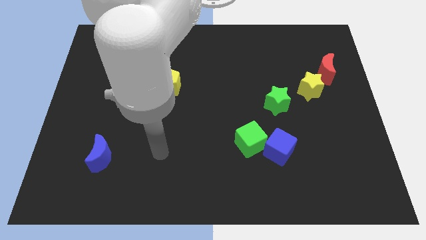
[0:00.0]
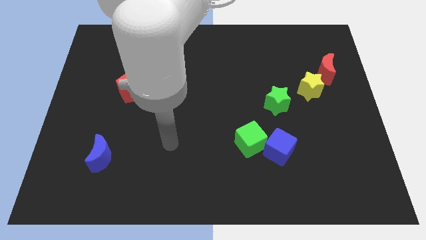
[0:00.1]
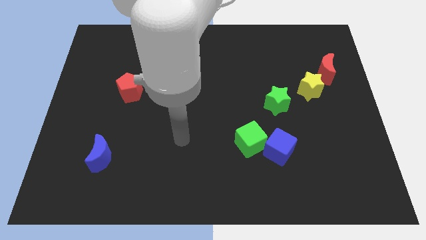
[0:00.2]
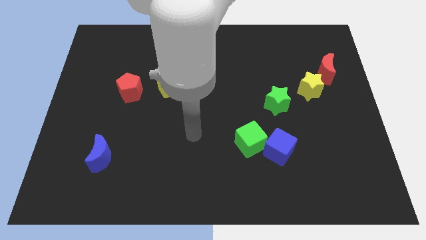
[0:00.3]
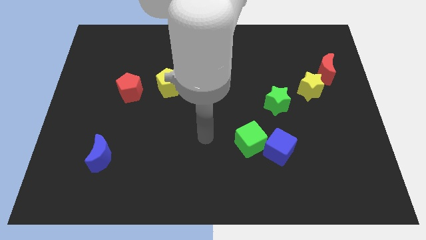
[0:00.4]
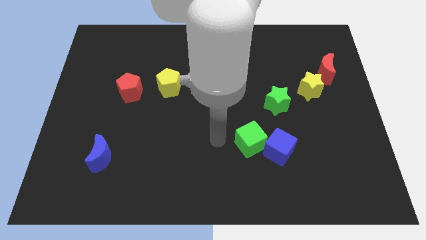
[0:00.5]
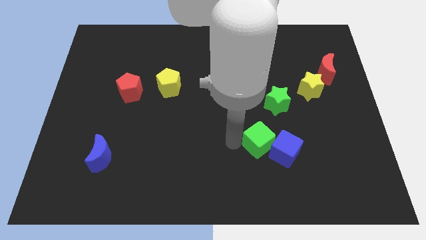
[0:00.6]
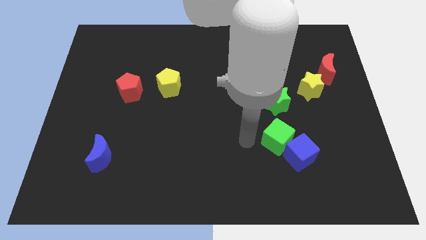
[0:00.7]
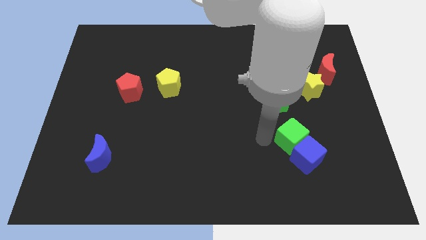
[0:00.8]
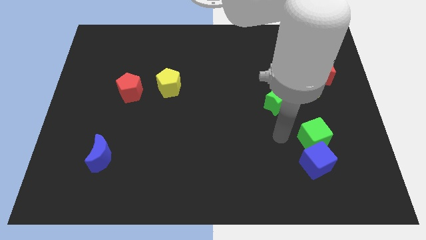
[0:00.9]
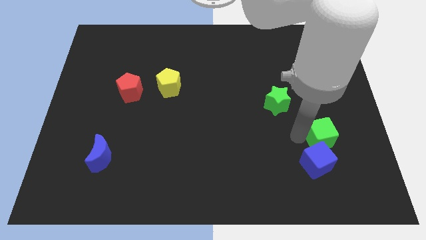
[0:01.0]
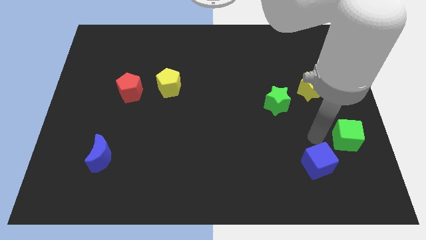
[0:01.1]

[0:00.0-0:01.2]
separate the blue cube from the green cube

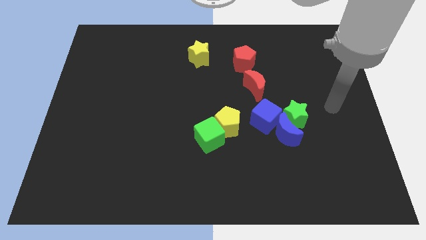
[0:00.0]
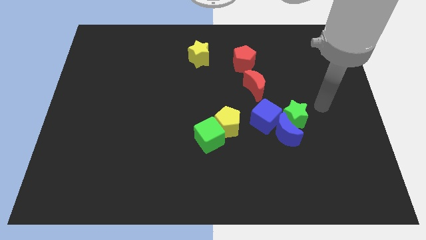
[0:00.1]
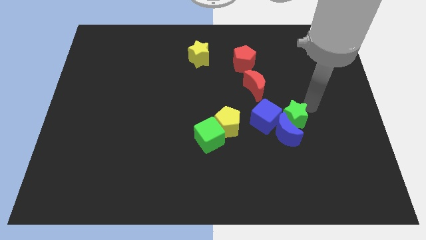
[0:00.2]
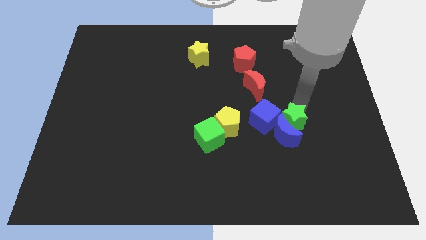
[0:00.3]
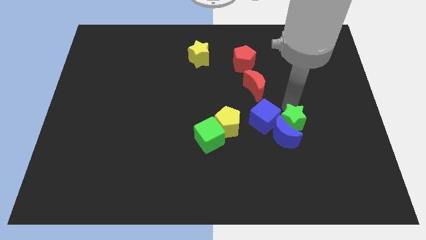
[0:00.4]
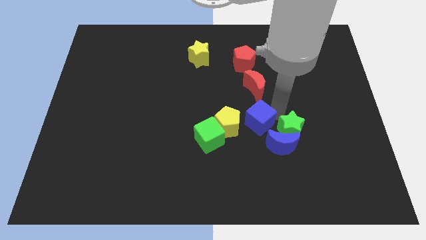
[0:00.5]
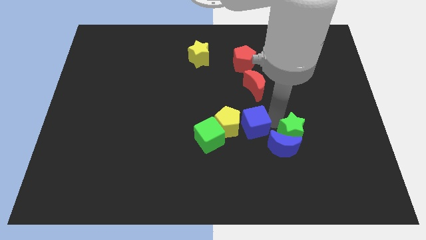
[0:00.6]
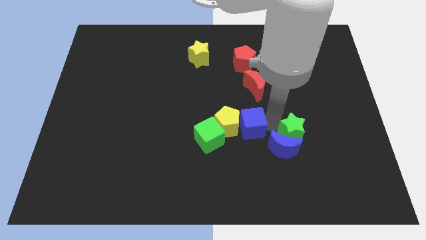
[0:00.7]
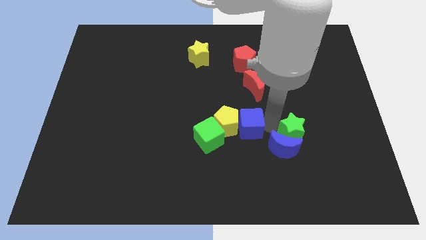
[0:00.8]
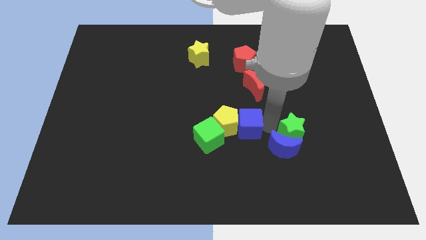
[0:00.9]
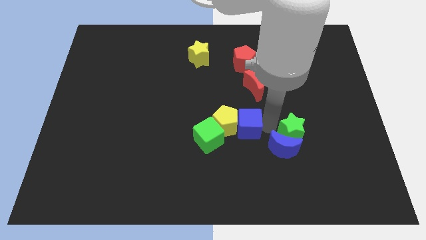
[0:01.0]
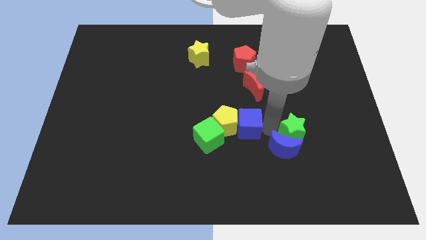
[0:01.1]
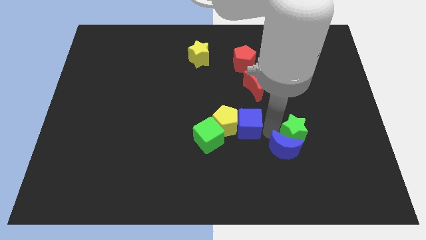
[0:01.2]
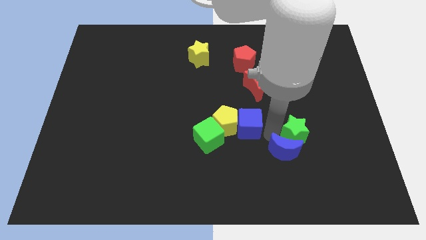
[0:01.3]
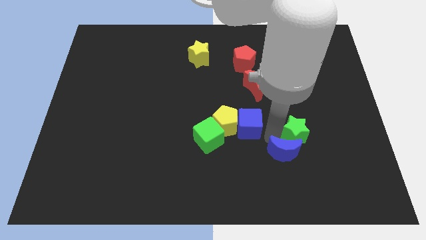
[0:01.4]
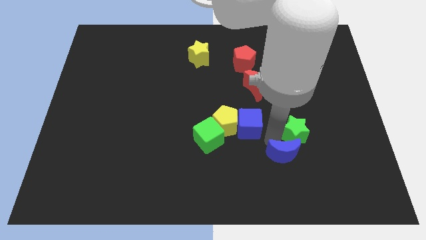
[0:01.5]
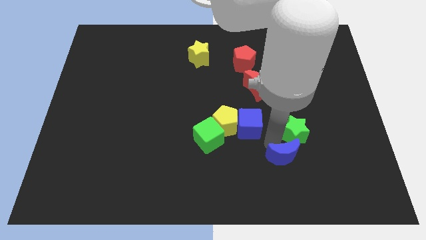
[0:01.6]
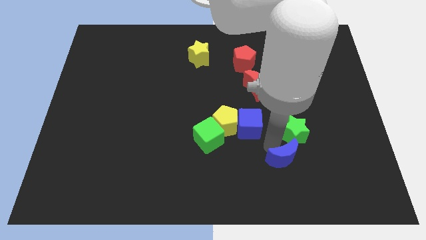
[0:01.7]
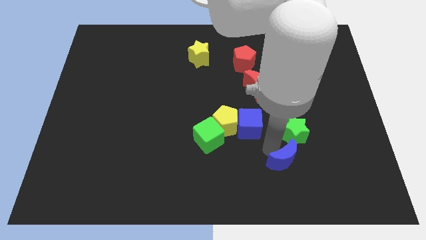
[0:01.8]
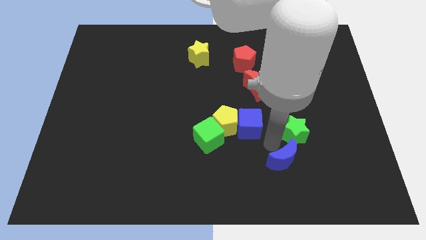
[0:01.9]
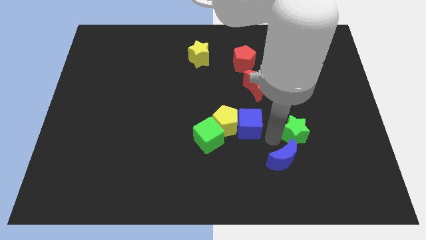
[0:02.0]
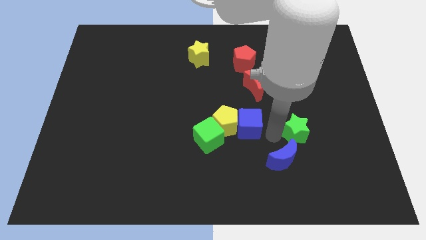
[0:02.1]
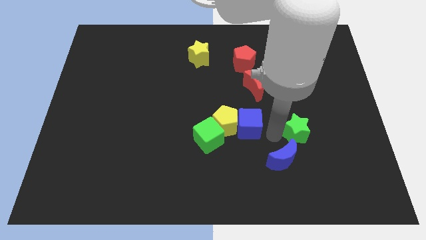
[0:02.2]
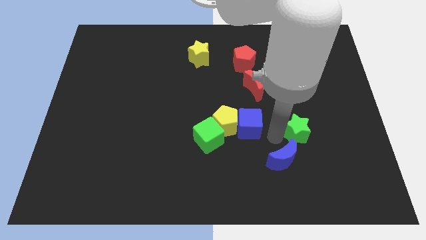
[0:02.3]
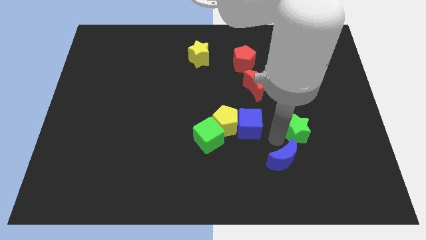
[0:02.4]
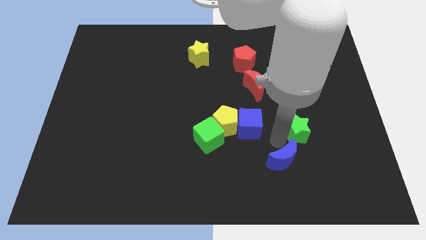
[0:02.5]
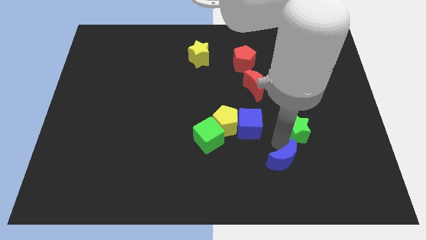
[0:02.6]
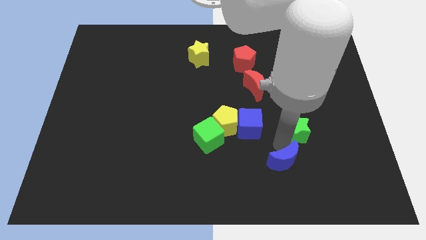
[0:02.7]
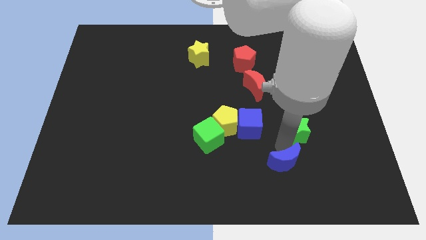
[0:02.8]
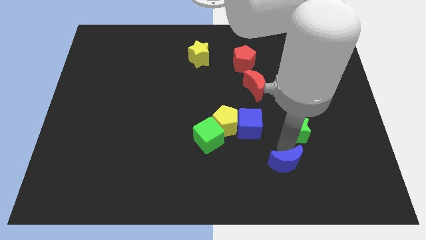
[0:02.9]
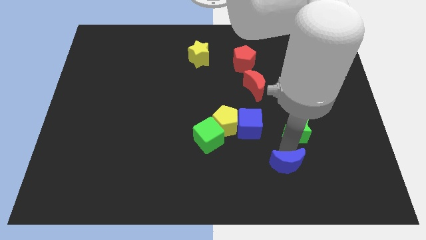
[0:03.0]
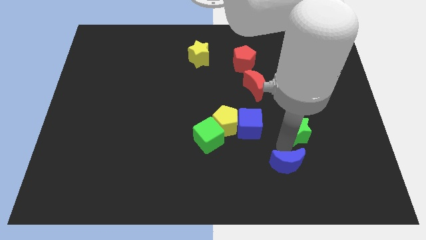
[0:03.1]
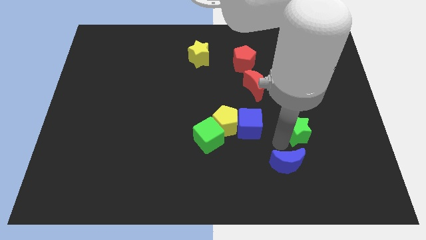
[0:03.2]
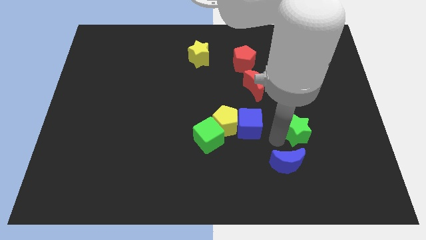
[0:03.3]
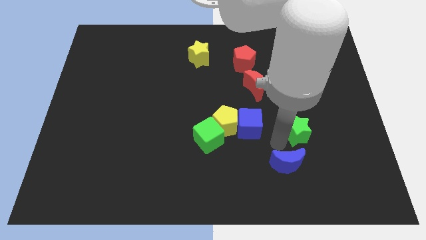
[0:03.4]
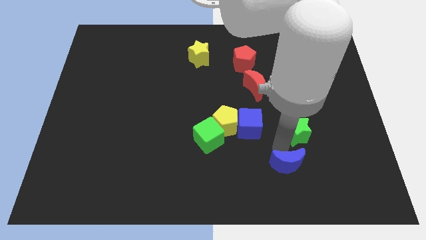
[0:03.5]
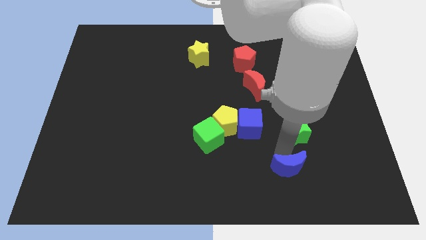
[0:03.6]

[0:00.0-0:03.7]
pull the blue moon apart from the green star and blue cube

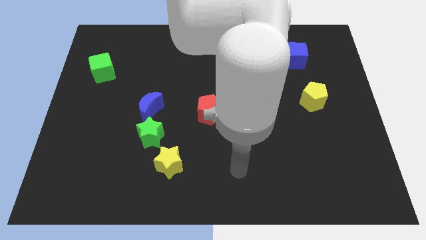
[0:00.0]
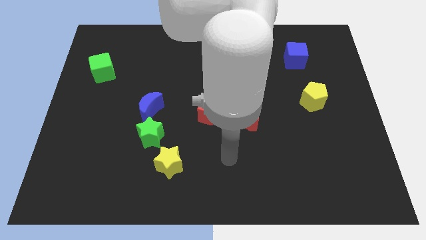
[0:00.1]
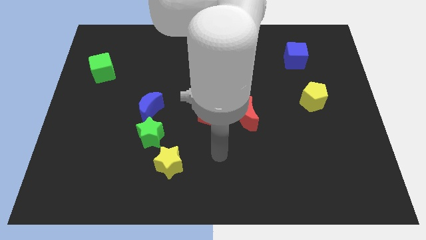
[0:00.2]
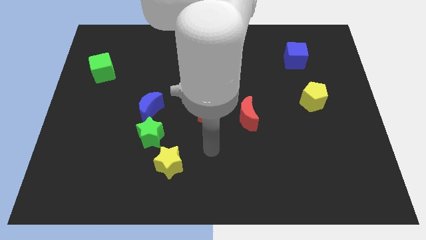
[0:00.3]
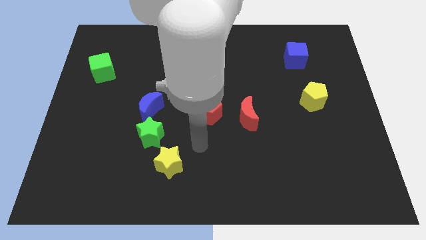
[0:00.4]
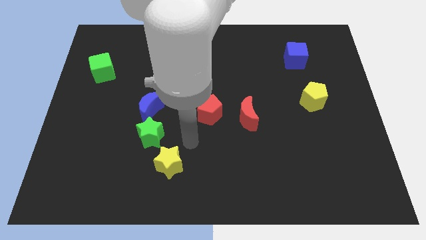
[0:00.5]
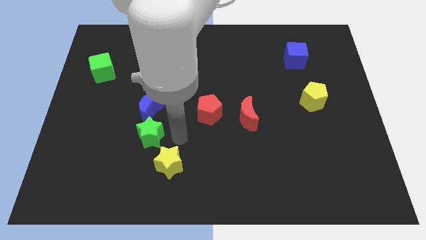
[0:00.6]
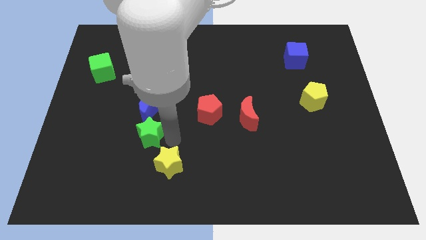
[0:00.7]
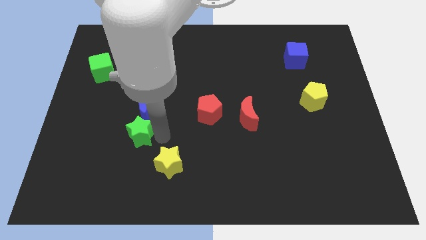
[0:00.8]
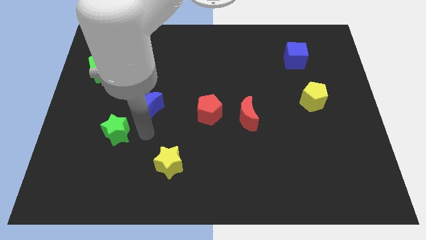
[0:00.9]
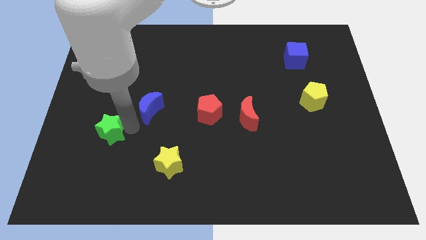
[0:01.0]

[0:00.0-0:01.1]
move the blue moon away from the green star

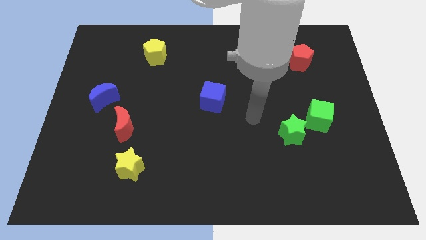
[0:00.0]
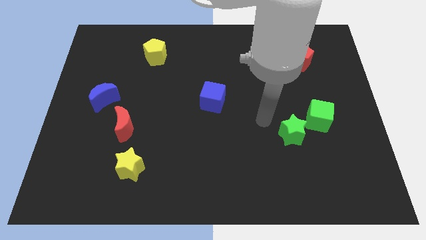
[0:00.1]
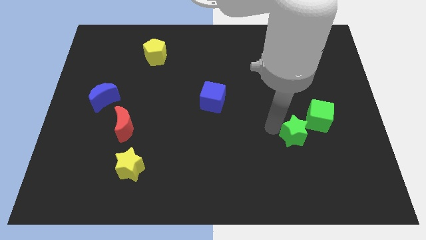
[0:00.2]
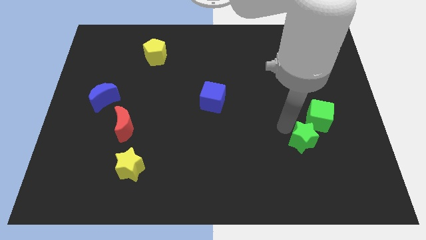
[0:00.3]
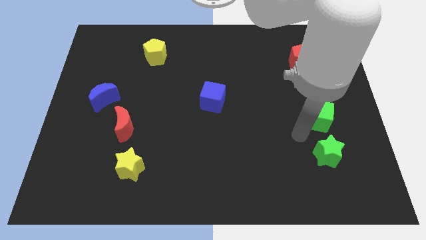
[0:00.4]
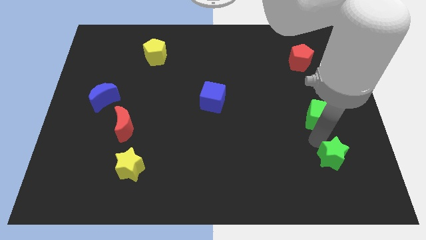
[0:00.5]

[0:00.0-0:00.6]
separate the green cube from the green star

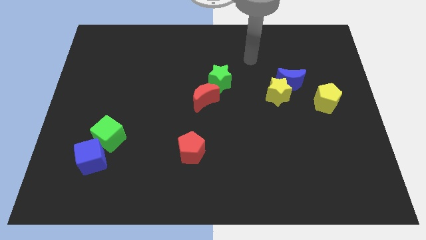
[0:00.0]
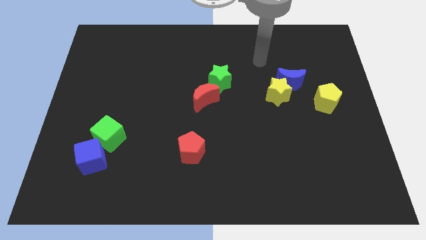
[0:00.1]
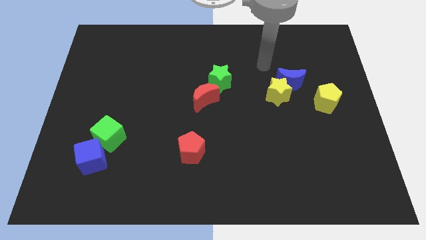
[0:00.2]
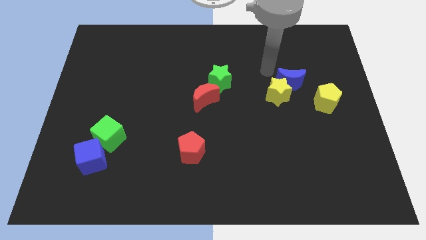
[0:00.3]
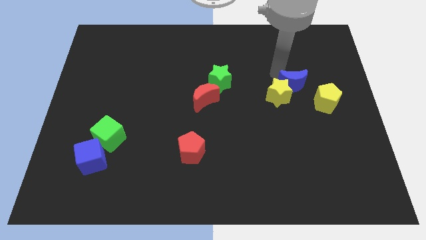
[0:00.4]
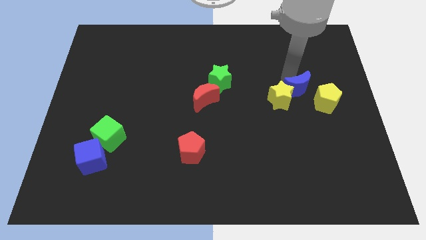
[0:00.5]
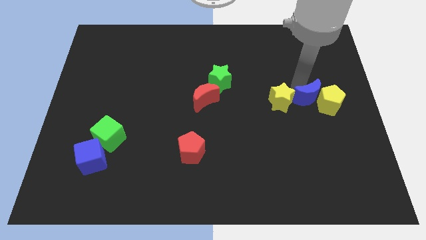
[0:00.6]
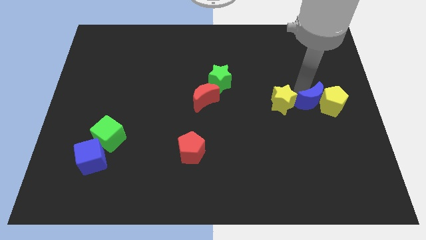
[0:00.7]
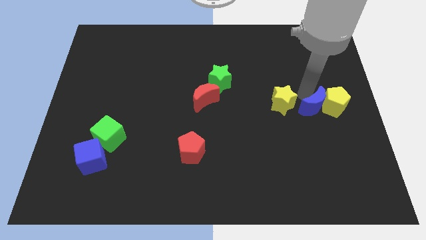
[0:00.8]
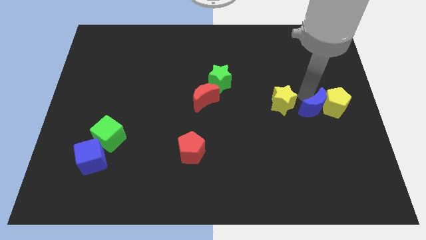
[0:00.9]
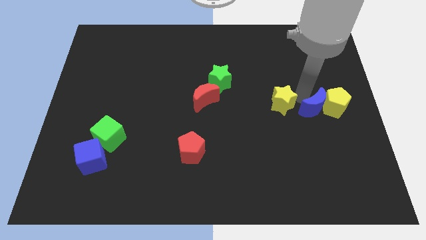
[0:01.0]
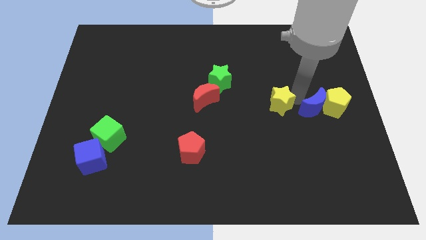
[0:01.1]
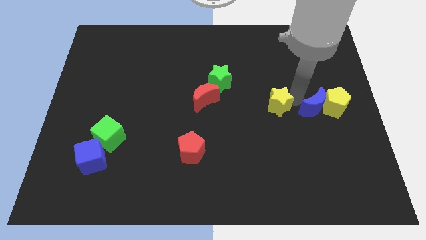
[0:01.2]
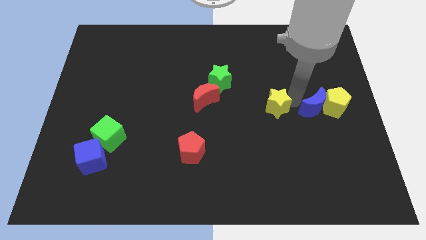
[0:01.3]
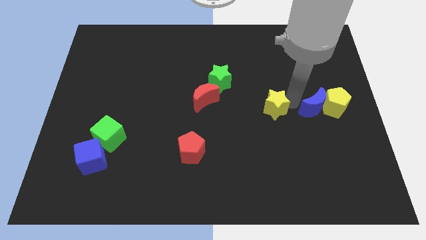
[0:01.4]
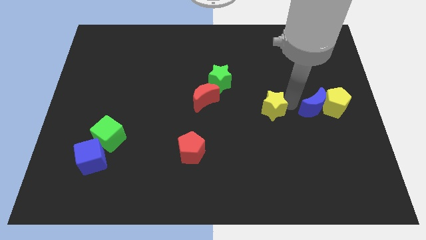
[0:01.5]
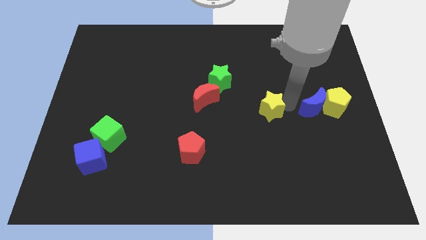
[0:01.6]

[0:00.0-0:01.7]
pull the yellow star apart from the blue moon

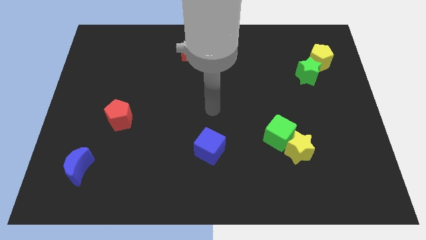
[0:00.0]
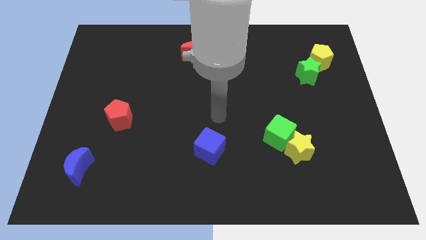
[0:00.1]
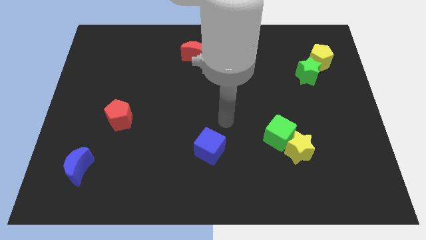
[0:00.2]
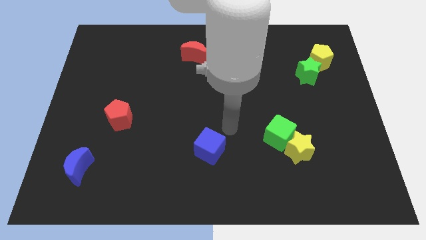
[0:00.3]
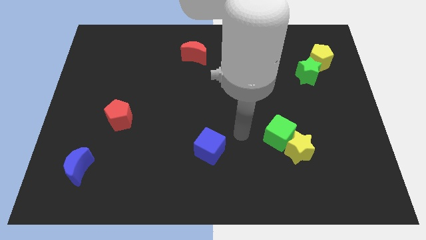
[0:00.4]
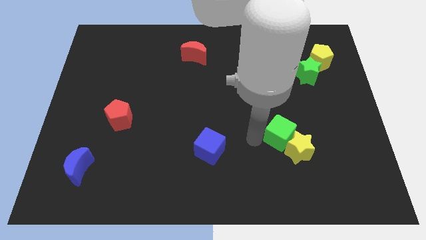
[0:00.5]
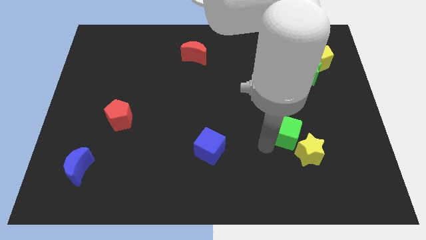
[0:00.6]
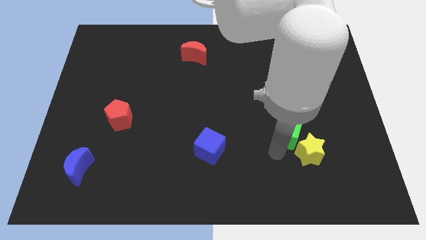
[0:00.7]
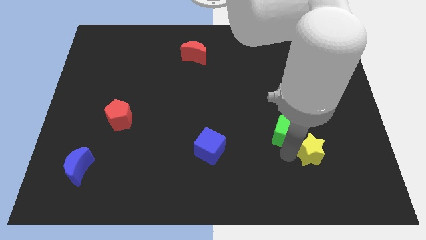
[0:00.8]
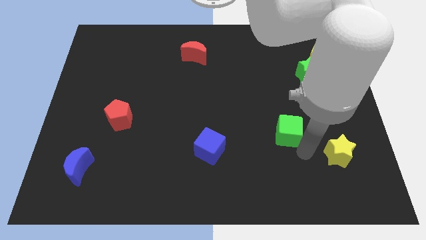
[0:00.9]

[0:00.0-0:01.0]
separate the green cube from the yellow star
